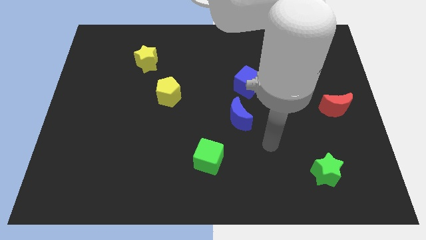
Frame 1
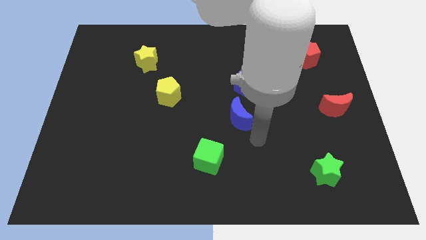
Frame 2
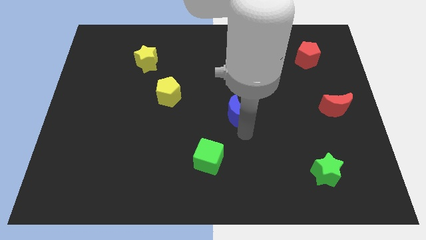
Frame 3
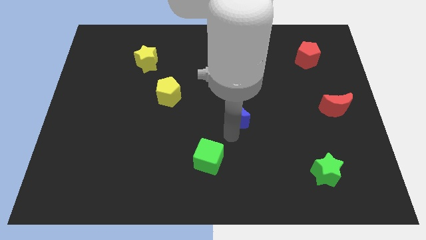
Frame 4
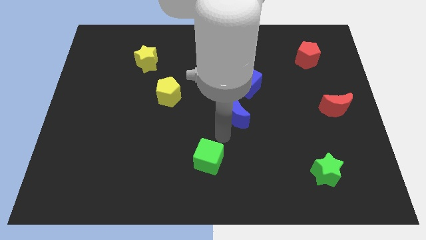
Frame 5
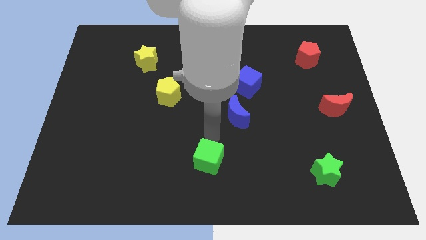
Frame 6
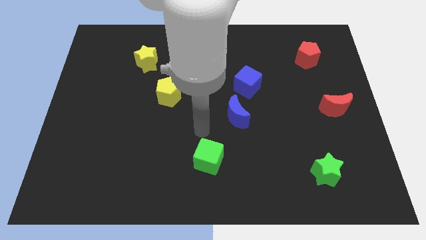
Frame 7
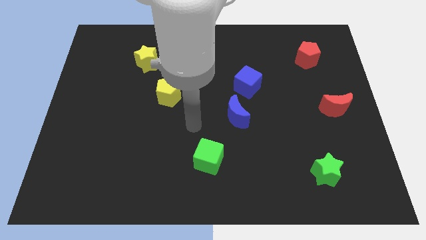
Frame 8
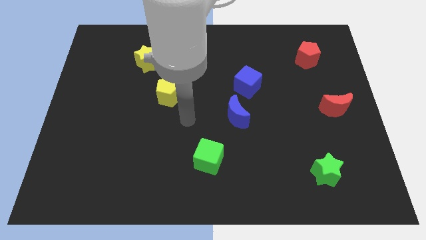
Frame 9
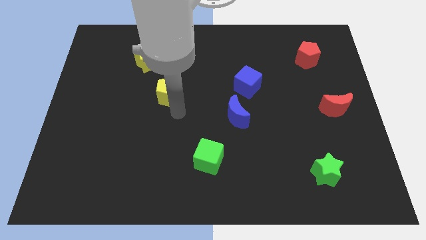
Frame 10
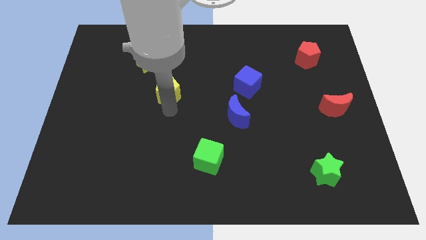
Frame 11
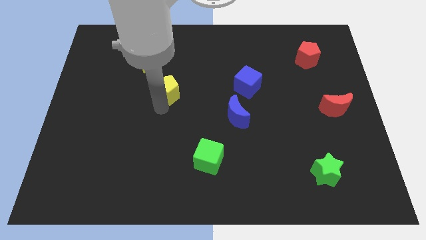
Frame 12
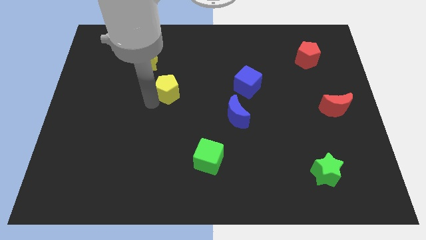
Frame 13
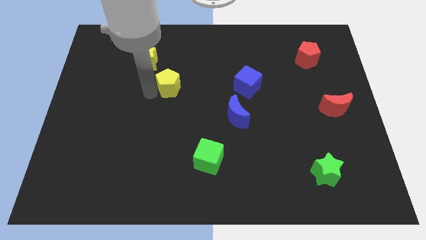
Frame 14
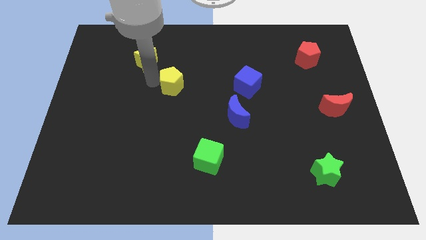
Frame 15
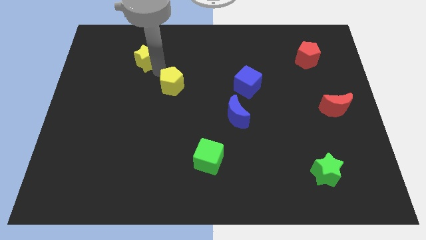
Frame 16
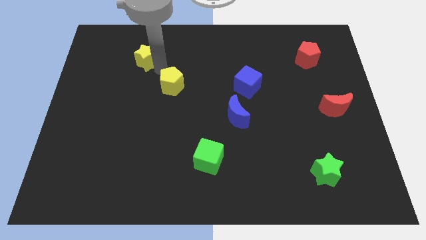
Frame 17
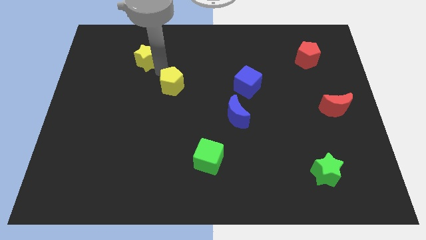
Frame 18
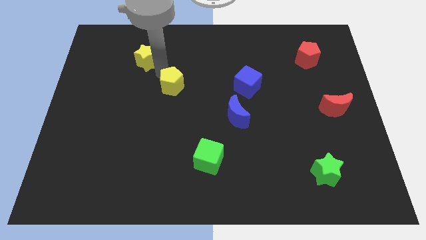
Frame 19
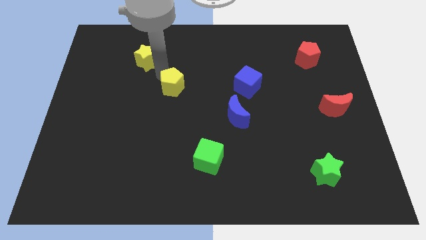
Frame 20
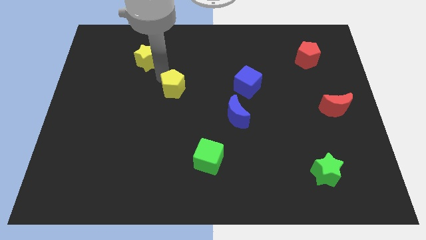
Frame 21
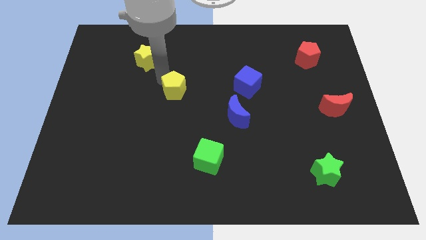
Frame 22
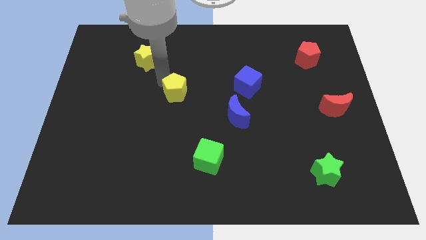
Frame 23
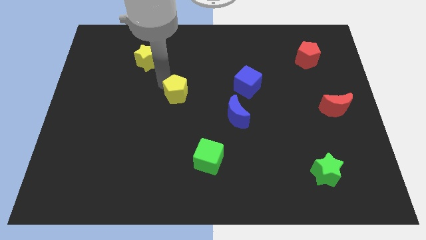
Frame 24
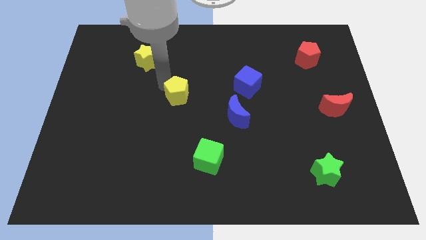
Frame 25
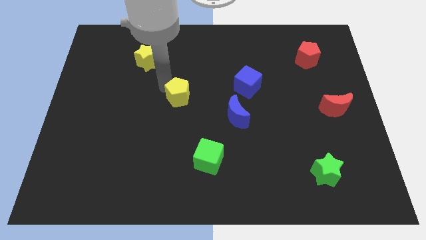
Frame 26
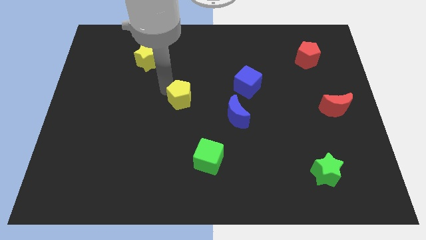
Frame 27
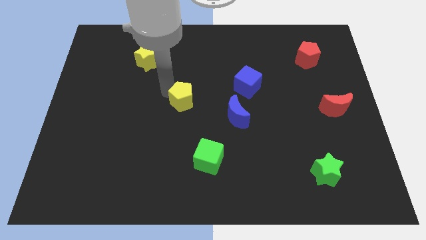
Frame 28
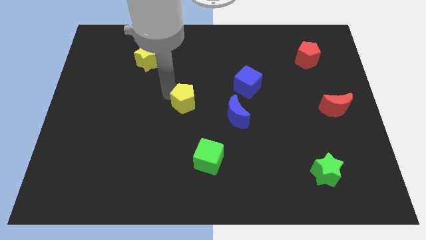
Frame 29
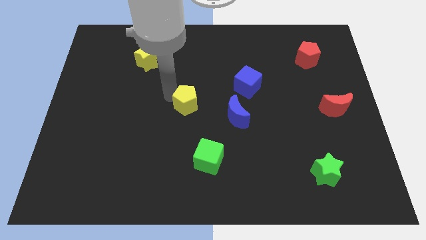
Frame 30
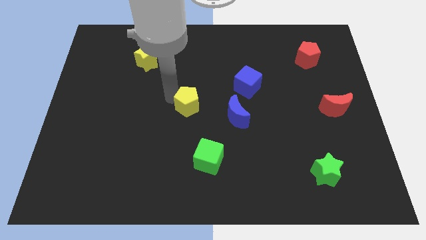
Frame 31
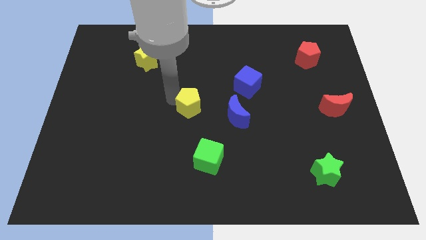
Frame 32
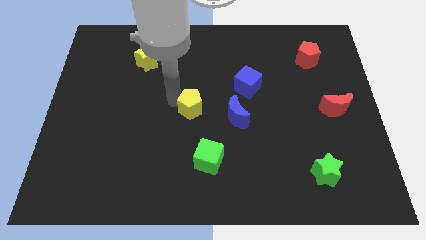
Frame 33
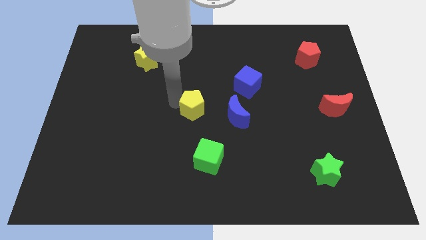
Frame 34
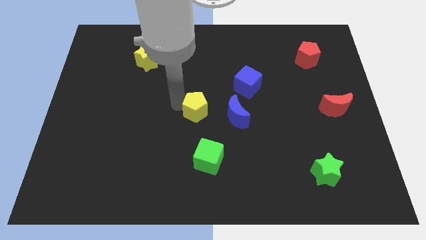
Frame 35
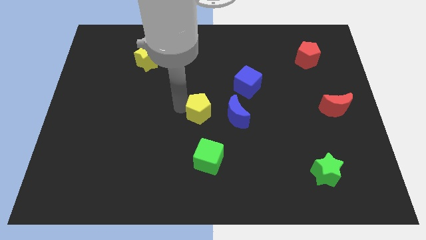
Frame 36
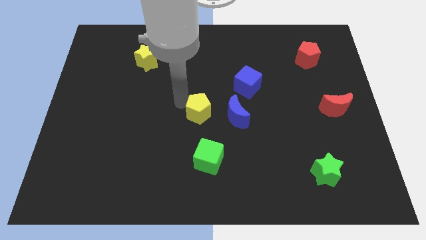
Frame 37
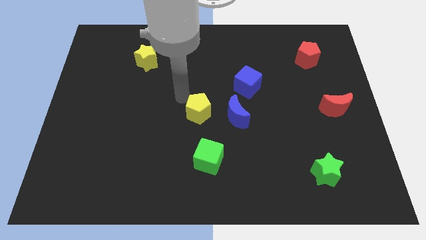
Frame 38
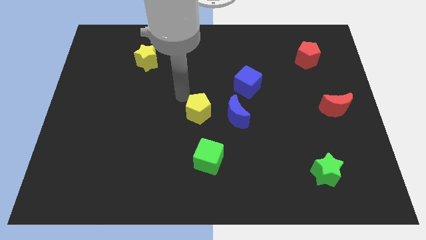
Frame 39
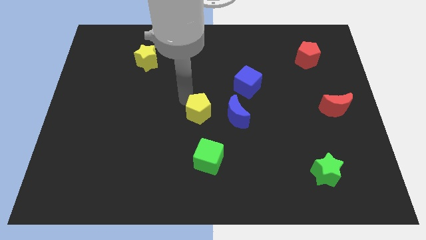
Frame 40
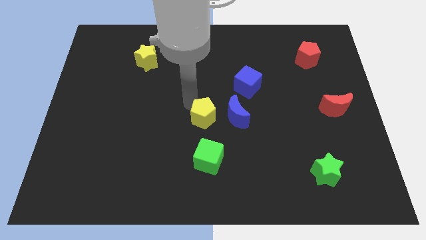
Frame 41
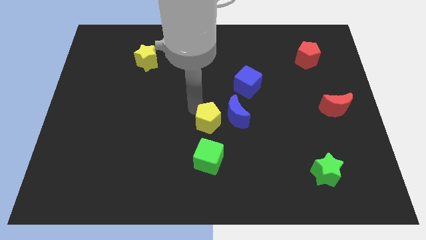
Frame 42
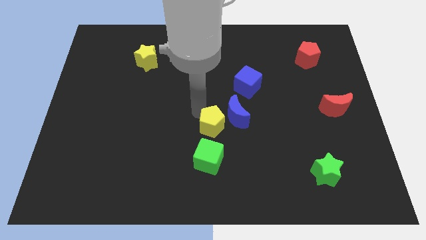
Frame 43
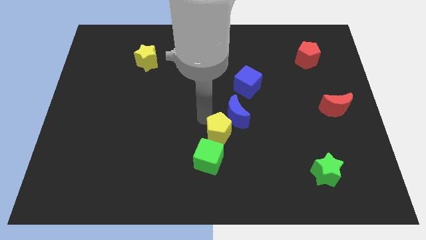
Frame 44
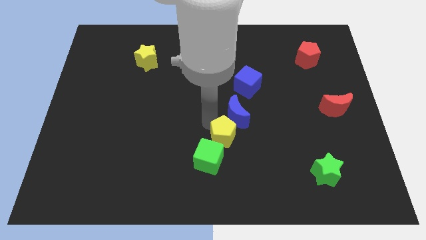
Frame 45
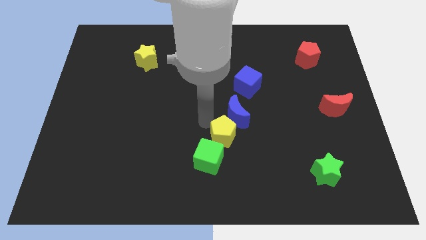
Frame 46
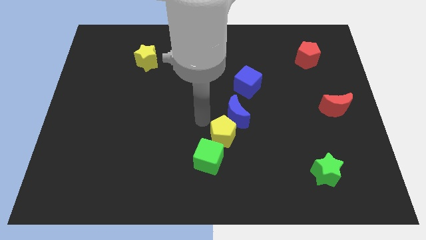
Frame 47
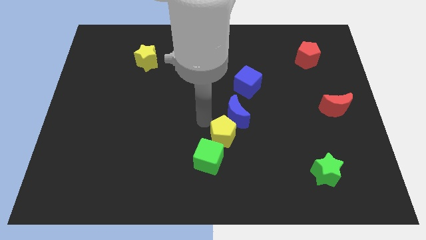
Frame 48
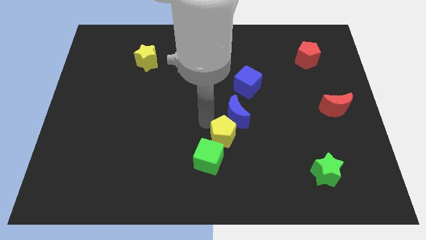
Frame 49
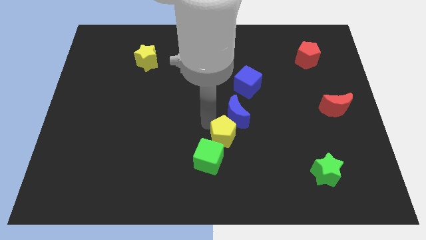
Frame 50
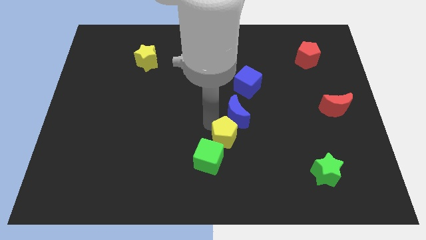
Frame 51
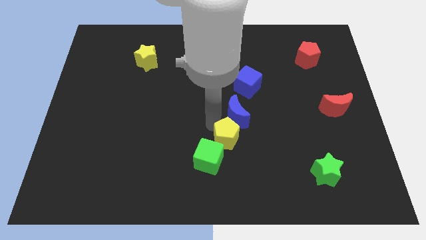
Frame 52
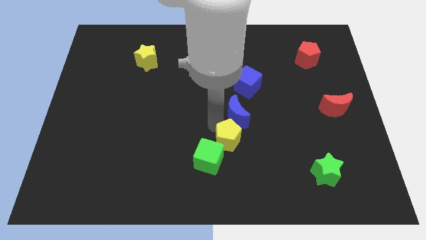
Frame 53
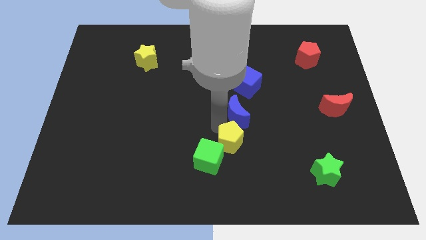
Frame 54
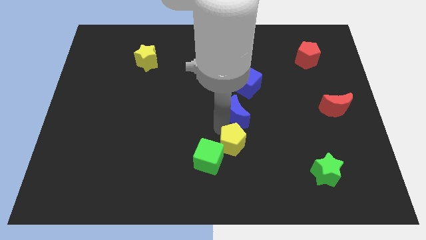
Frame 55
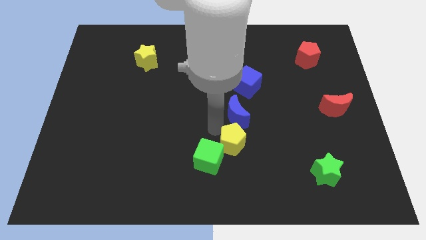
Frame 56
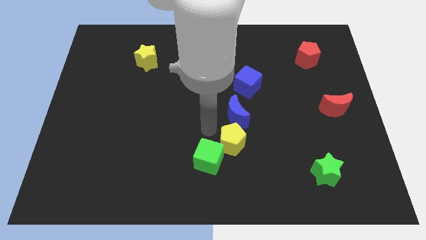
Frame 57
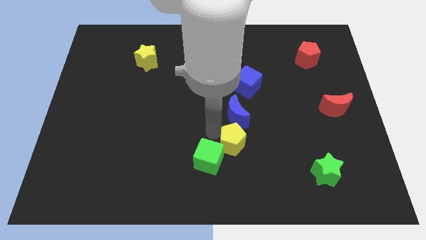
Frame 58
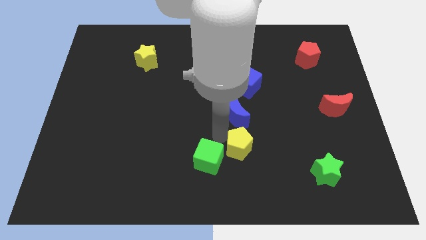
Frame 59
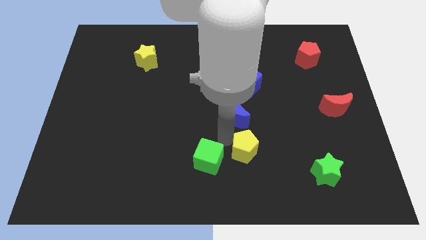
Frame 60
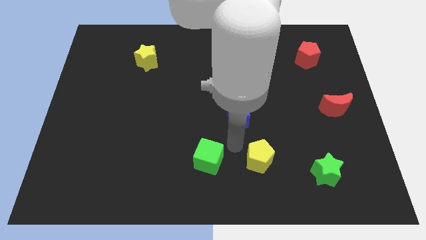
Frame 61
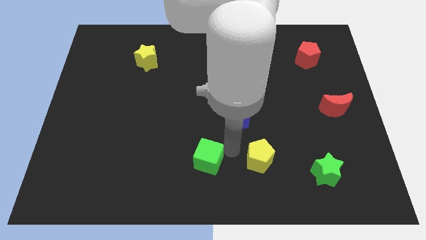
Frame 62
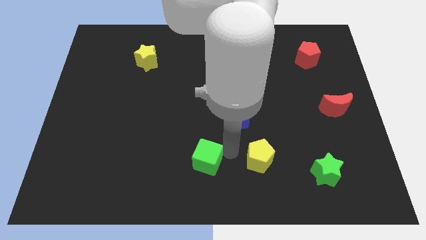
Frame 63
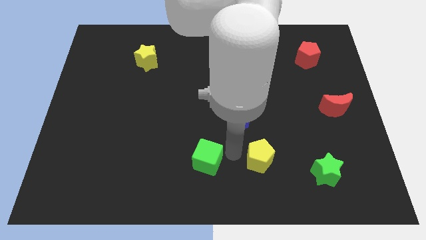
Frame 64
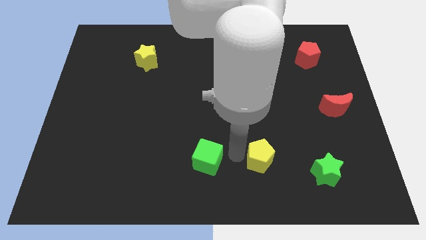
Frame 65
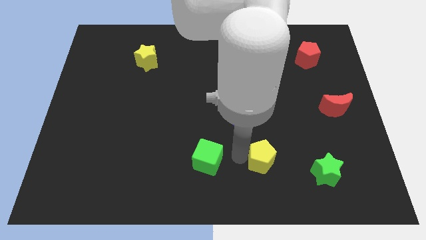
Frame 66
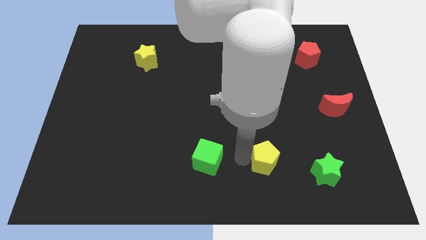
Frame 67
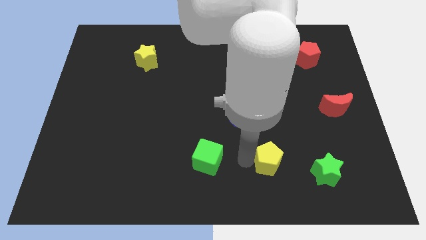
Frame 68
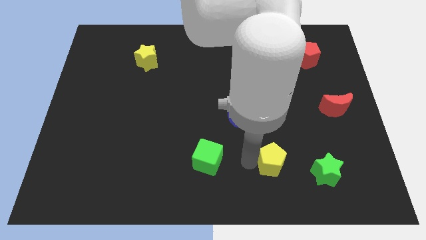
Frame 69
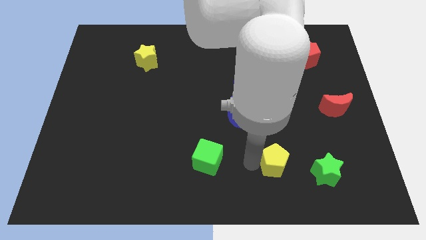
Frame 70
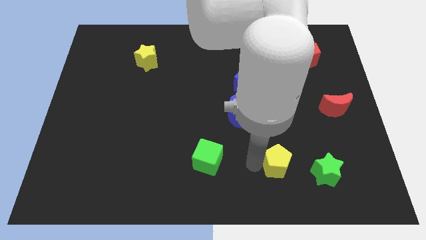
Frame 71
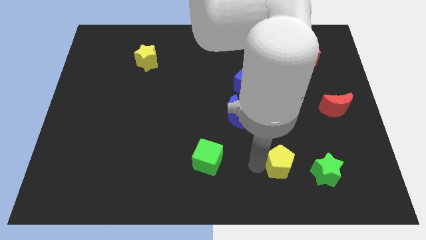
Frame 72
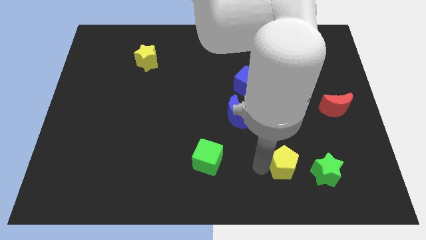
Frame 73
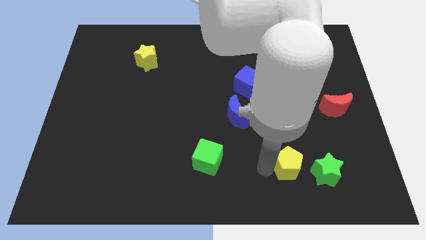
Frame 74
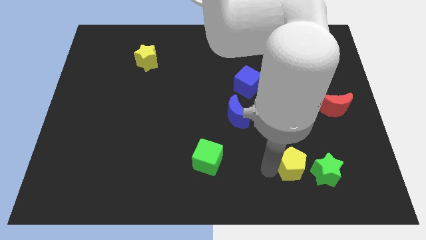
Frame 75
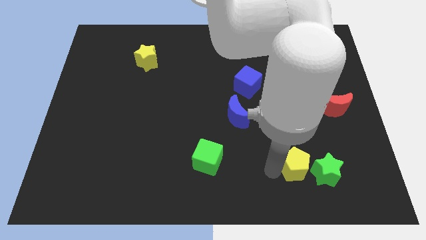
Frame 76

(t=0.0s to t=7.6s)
move the yellow pentagon next to the green star
